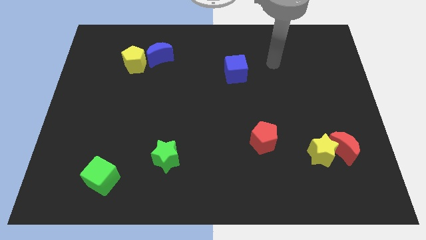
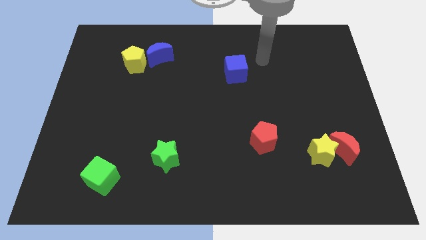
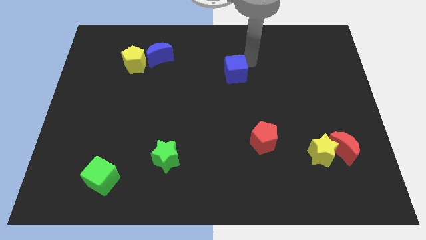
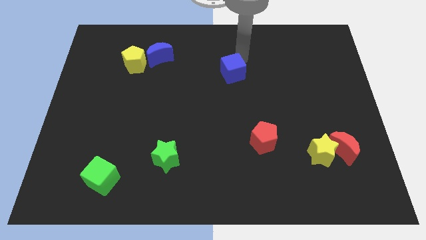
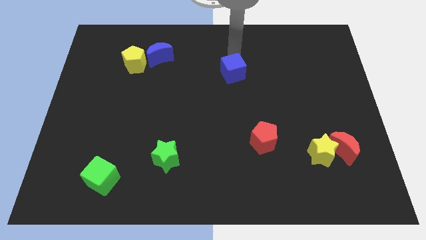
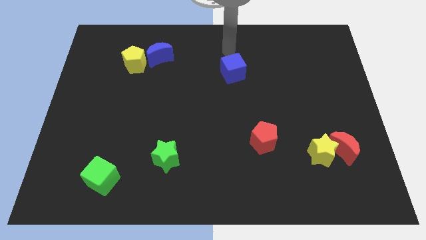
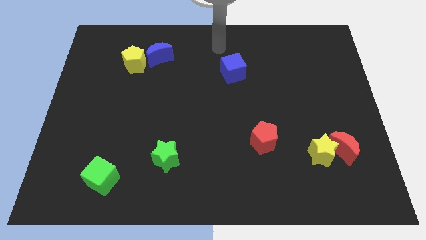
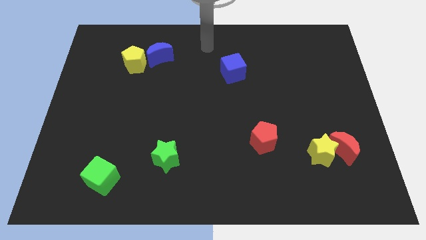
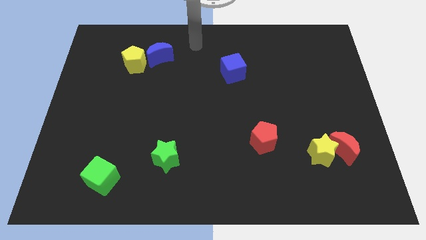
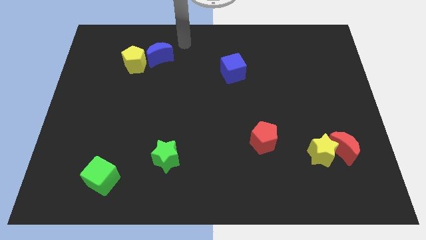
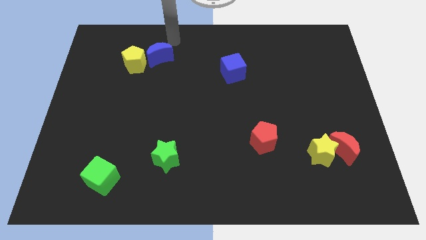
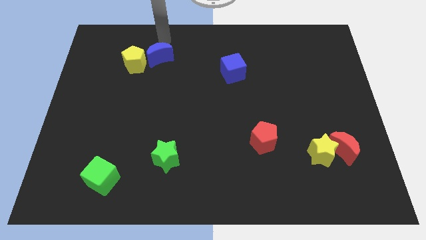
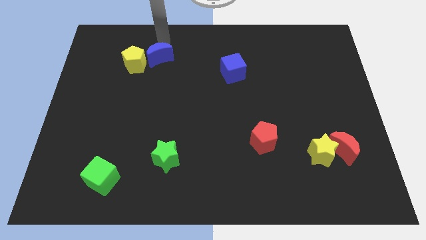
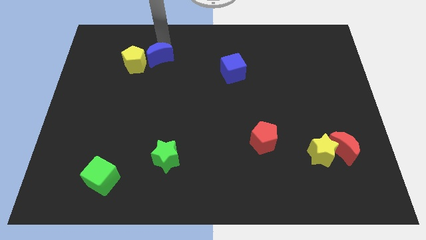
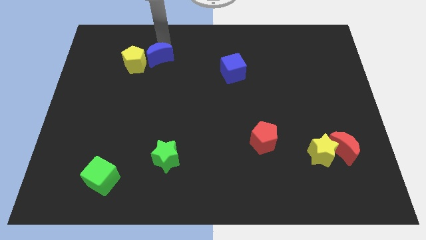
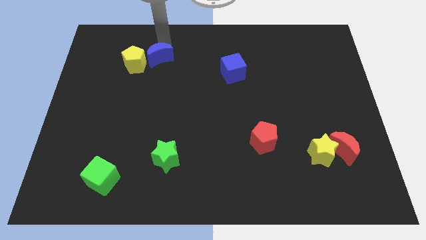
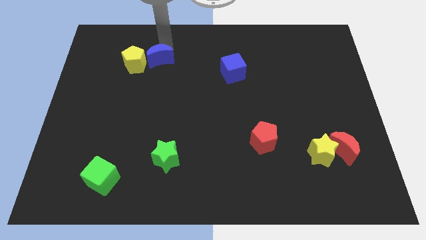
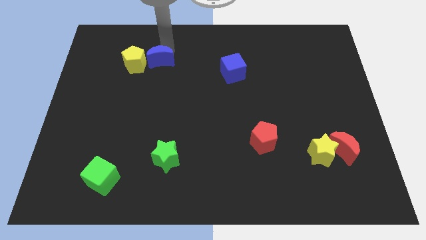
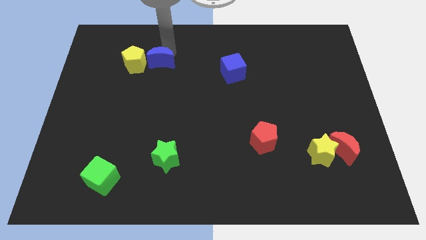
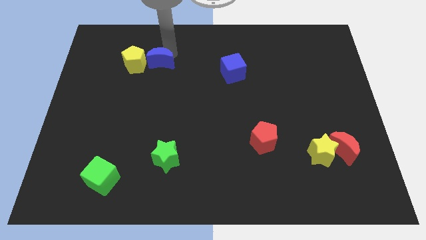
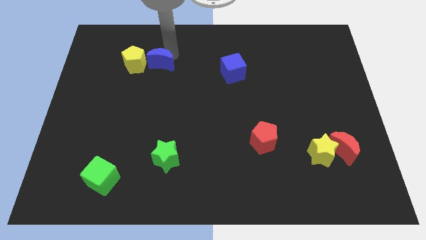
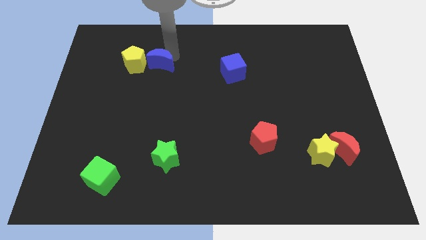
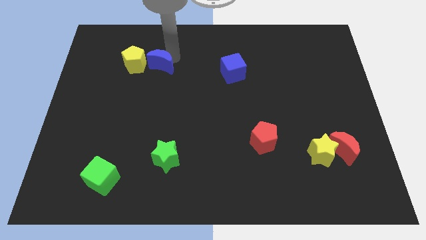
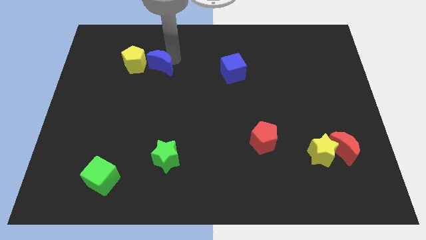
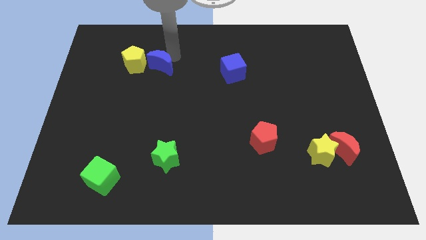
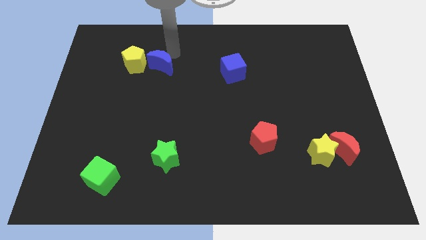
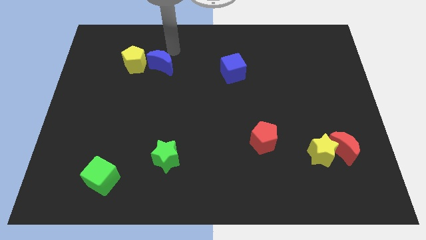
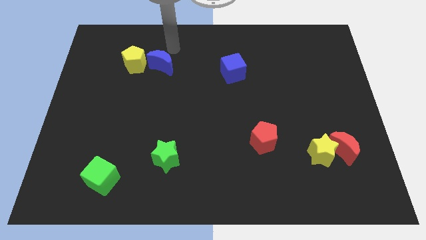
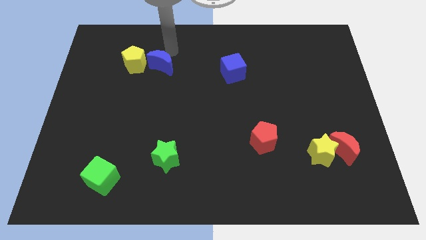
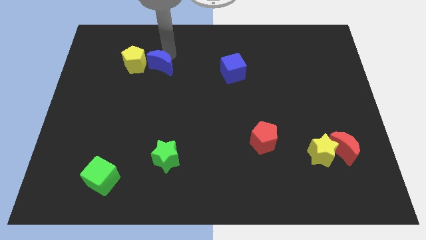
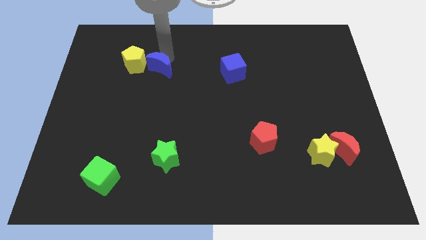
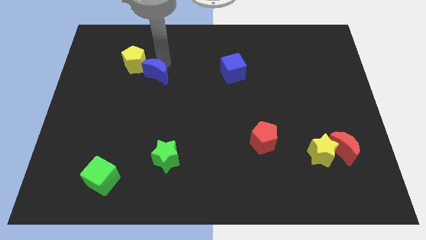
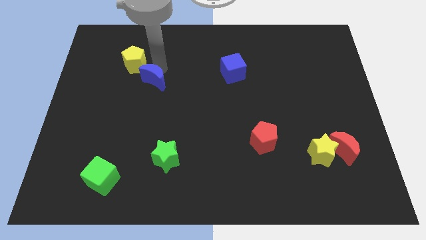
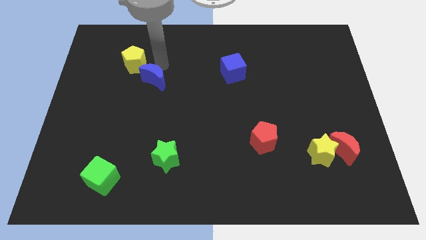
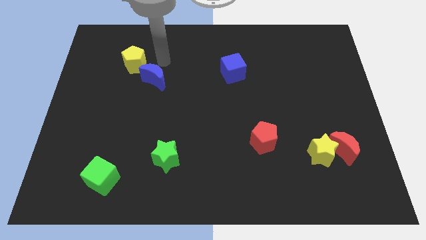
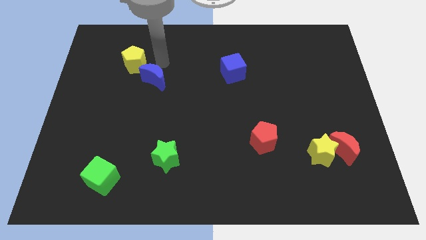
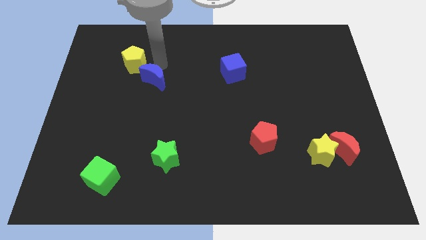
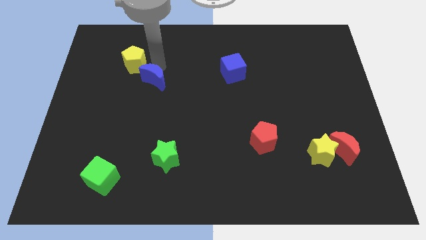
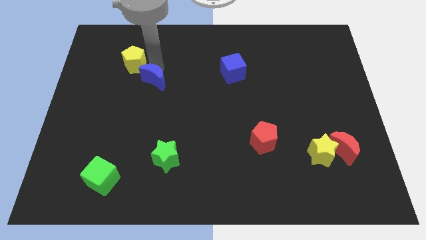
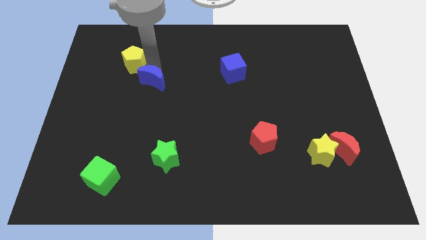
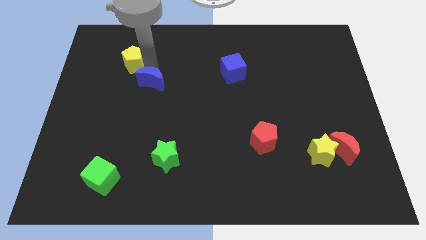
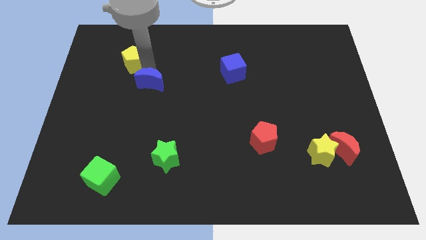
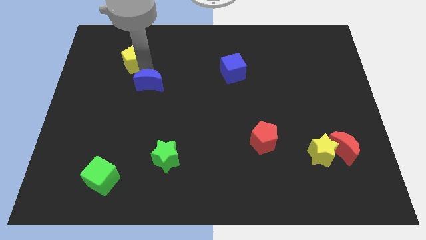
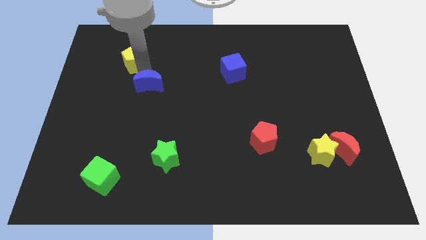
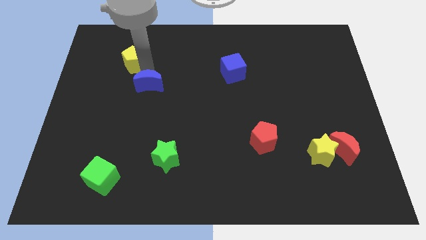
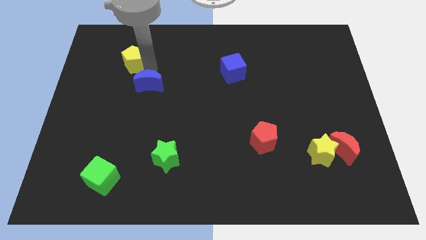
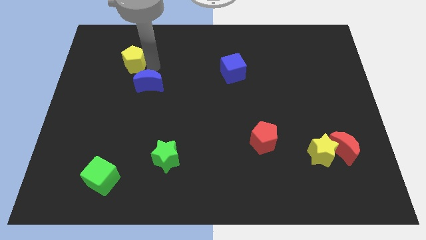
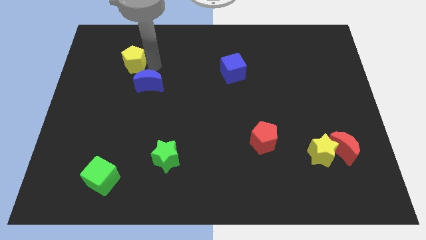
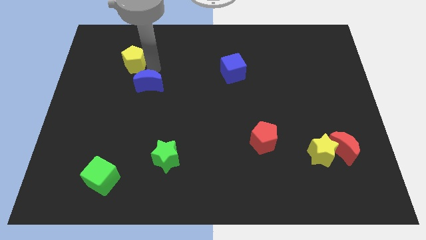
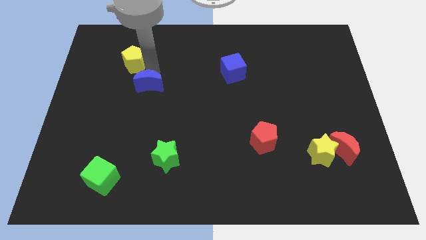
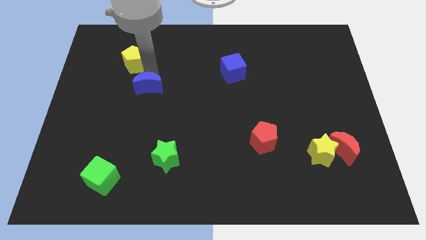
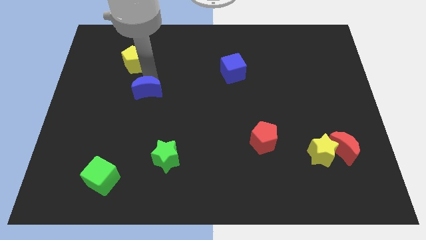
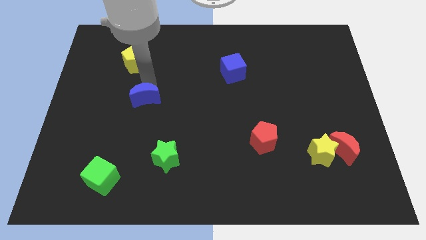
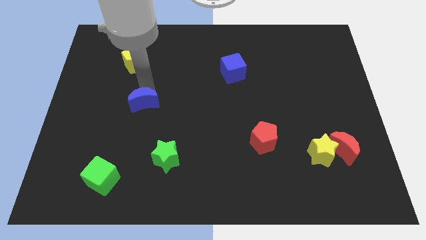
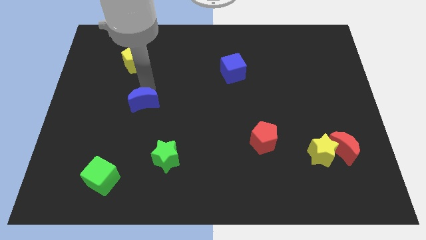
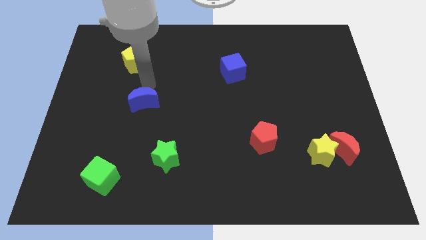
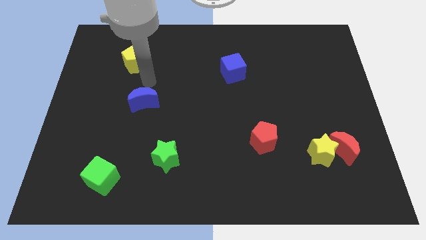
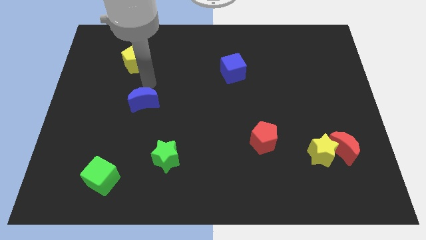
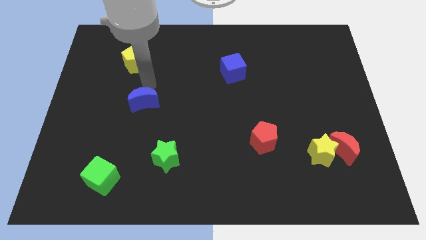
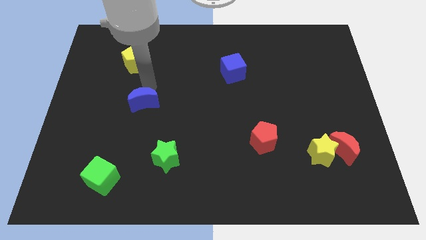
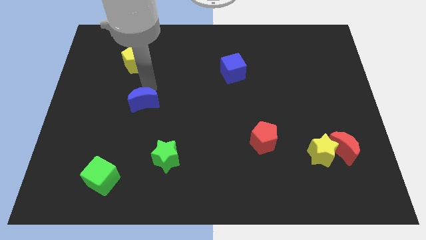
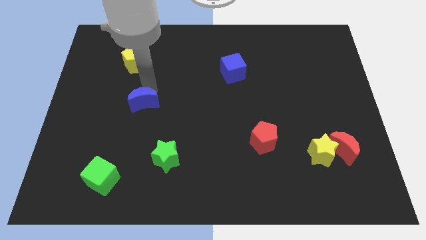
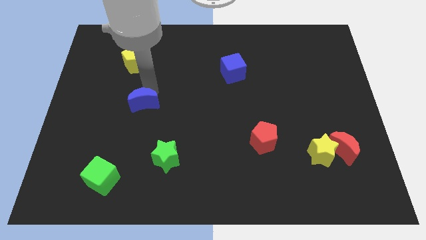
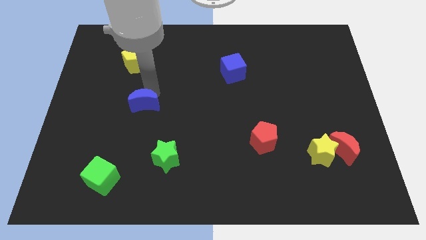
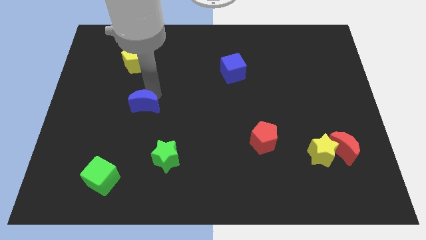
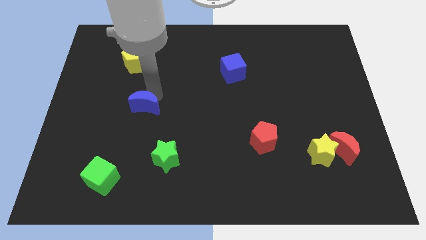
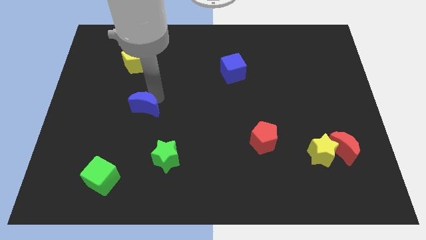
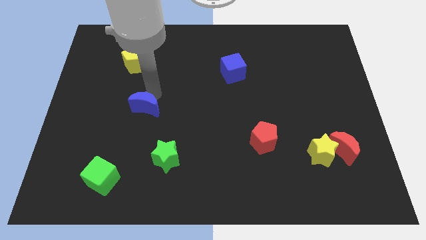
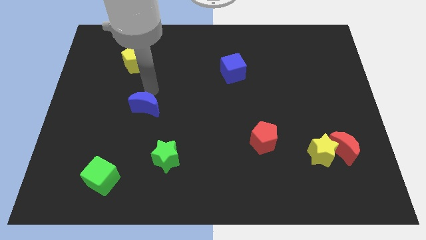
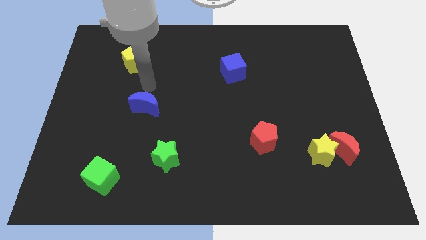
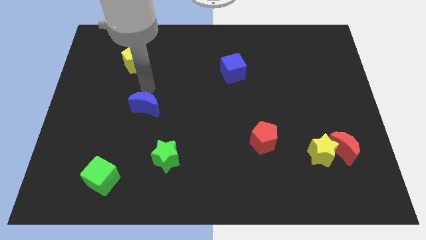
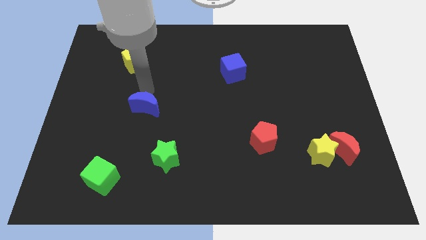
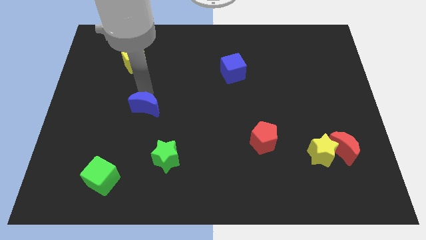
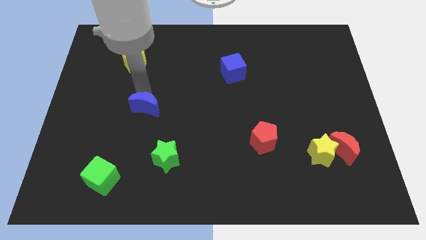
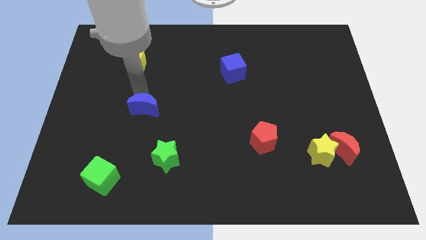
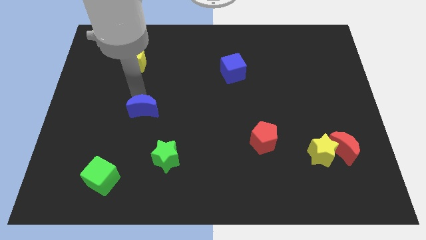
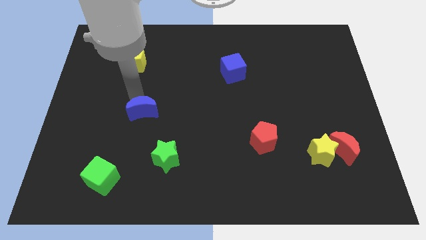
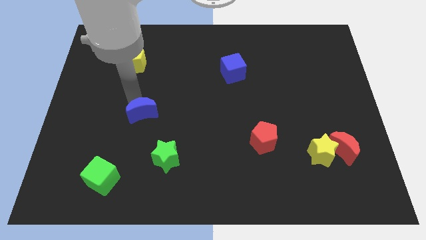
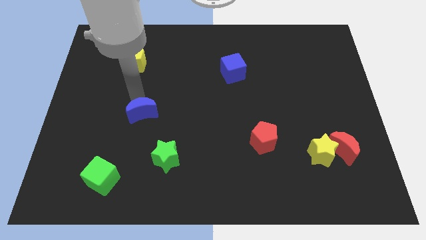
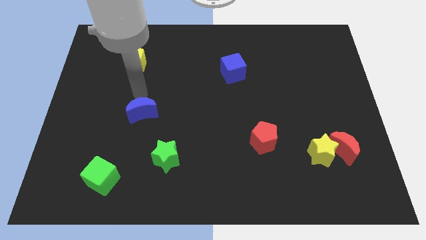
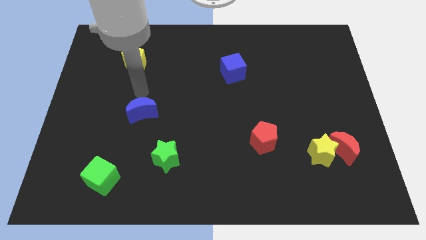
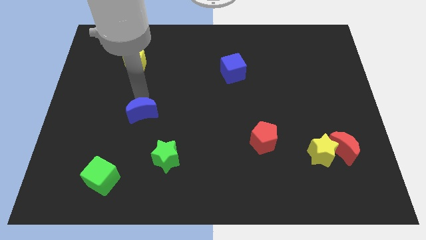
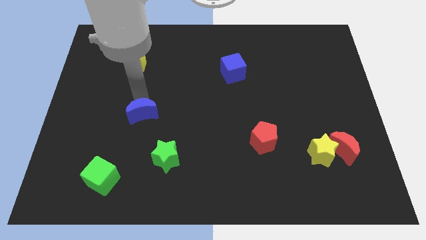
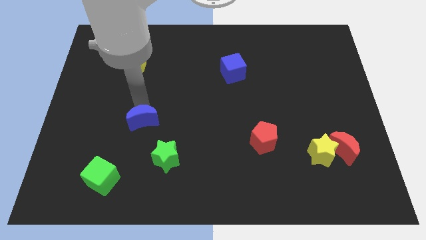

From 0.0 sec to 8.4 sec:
slide the blue moon down
